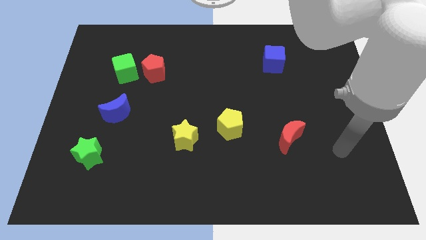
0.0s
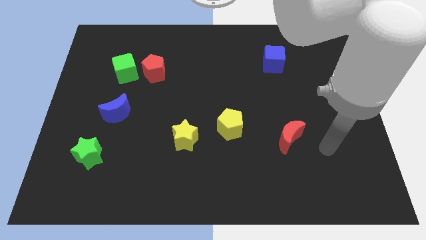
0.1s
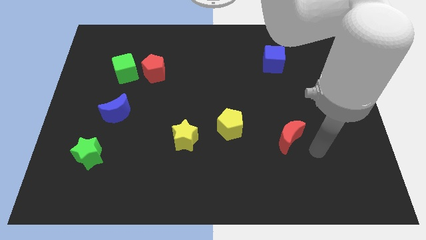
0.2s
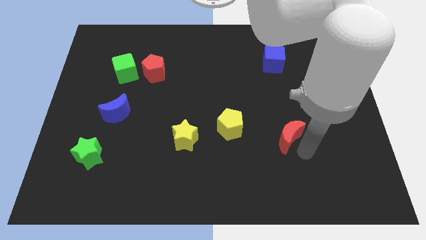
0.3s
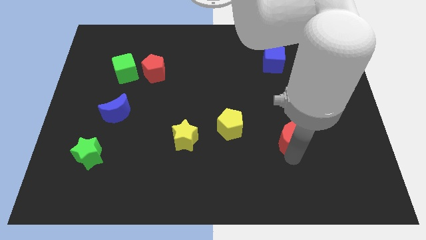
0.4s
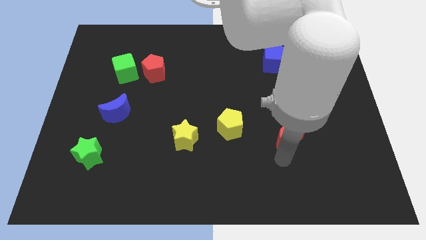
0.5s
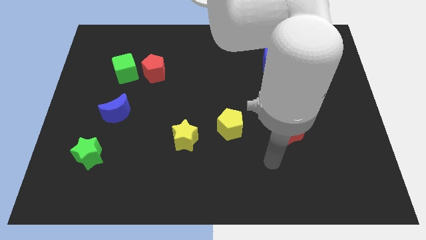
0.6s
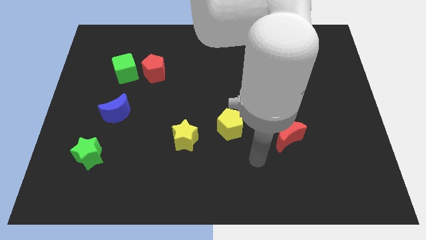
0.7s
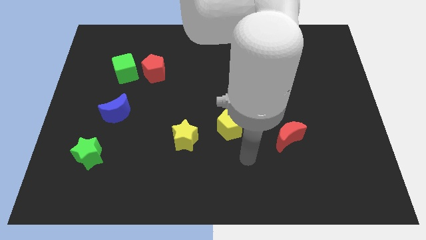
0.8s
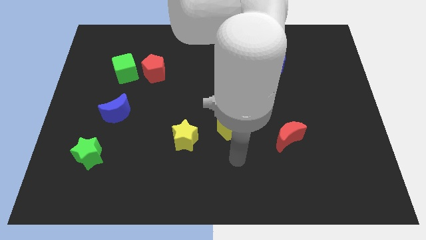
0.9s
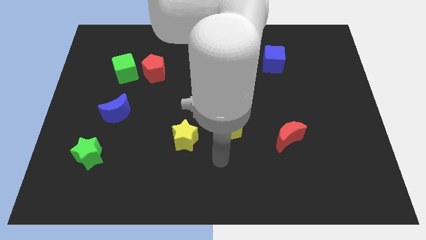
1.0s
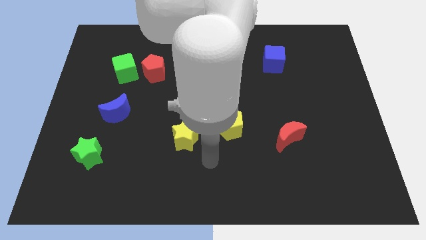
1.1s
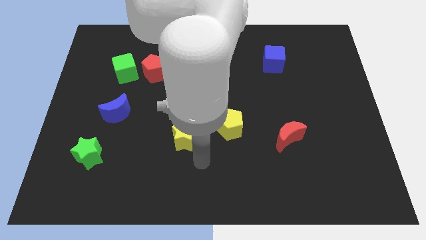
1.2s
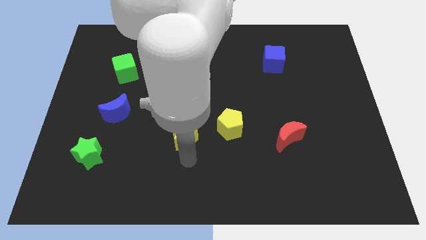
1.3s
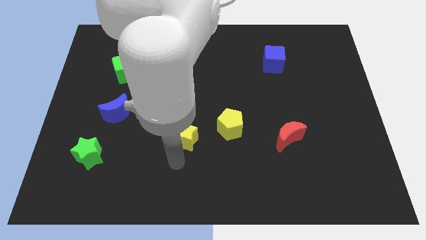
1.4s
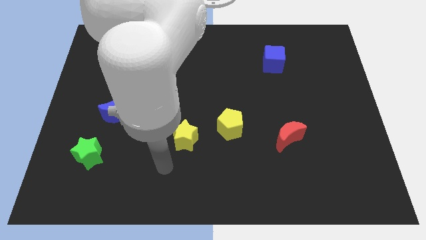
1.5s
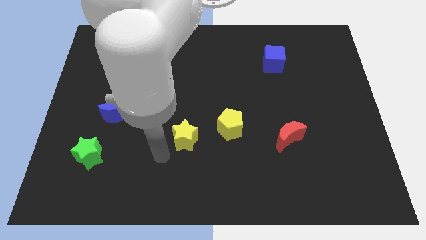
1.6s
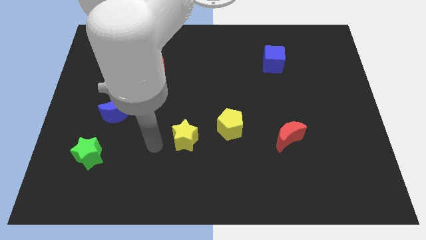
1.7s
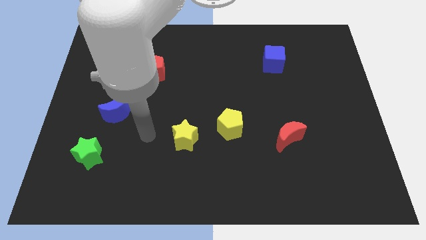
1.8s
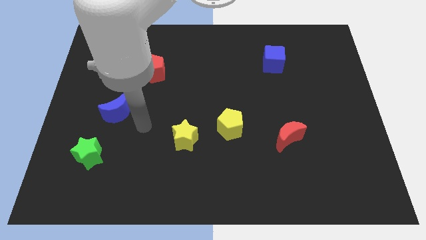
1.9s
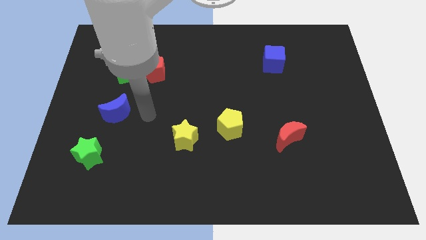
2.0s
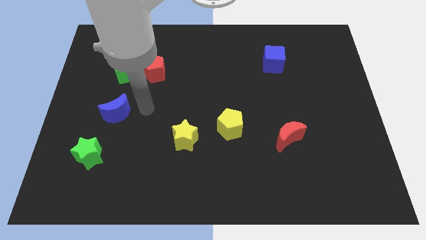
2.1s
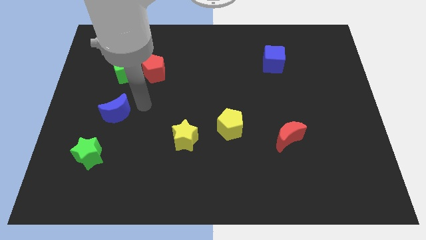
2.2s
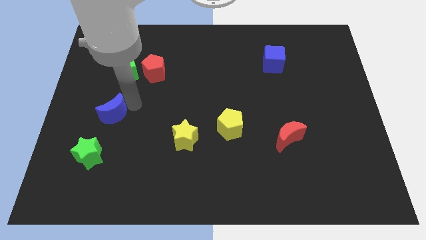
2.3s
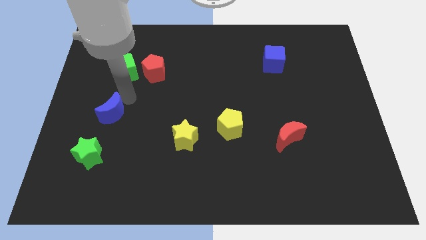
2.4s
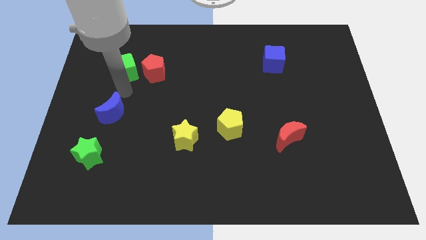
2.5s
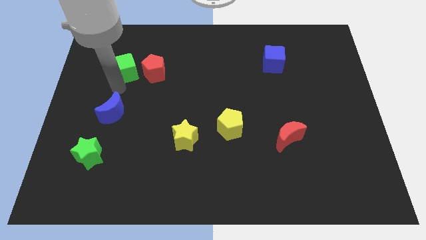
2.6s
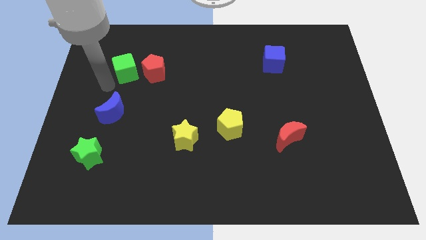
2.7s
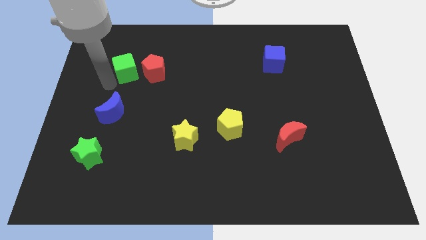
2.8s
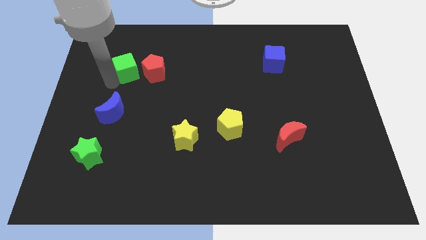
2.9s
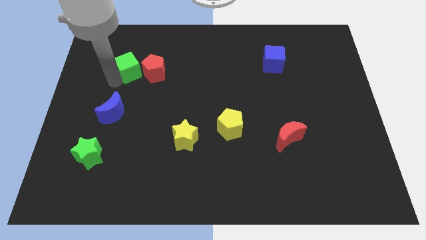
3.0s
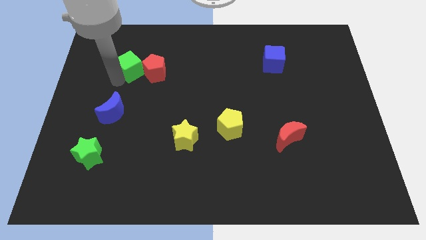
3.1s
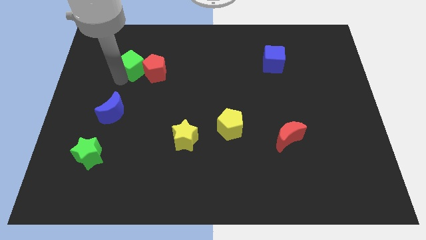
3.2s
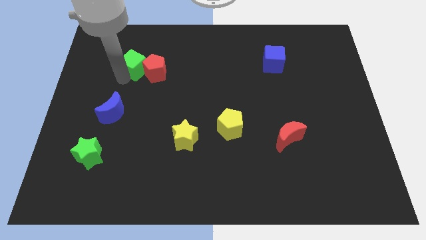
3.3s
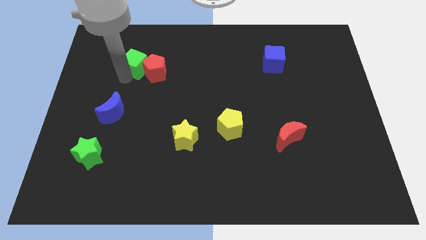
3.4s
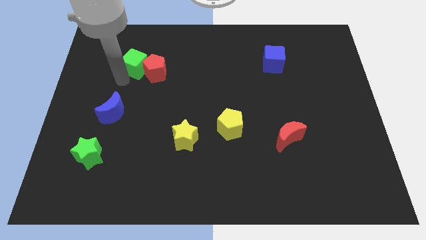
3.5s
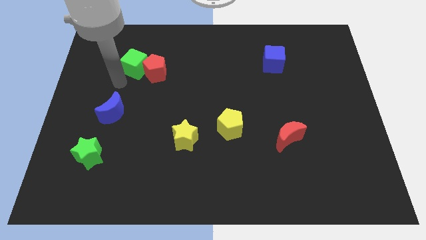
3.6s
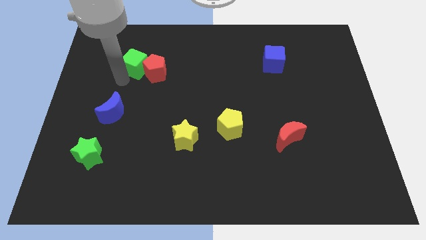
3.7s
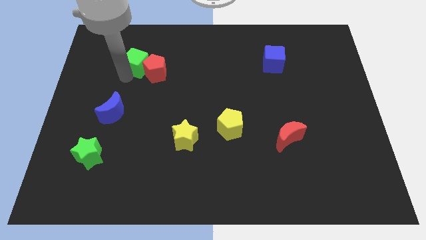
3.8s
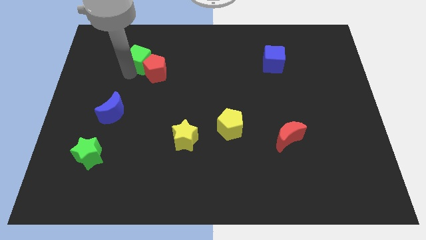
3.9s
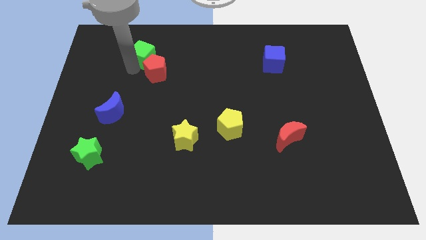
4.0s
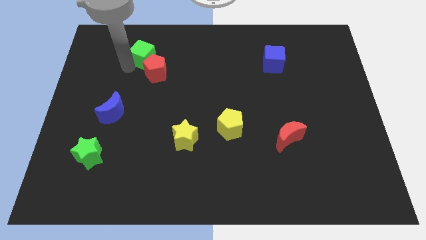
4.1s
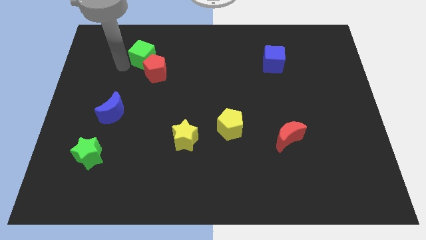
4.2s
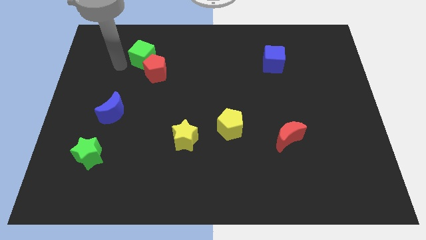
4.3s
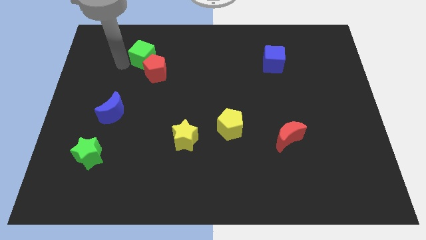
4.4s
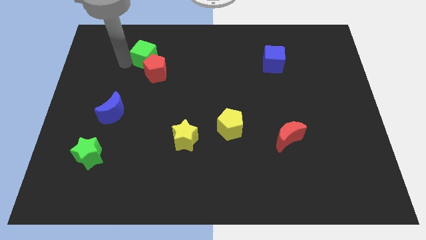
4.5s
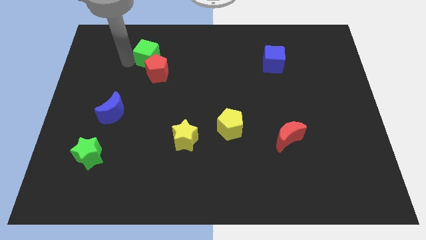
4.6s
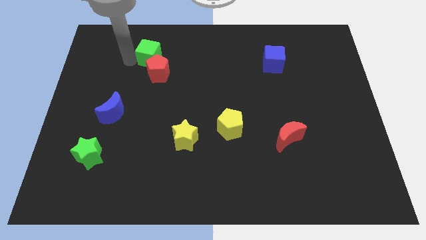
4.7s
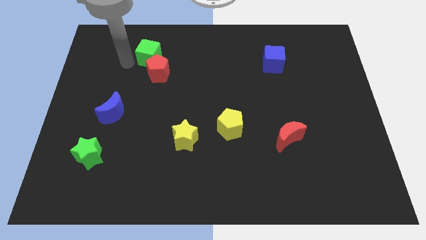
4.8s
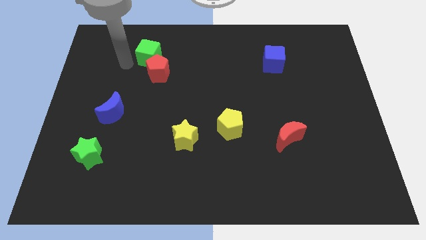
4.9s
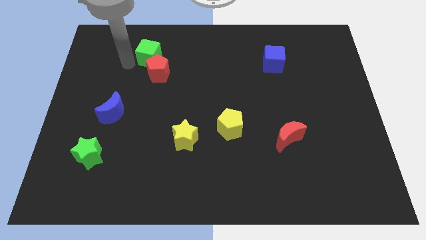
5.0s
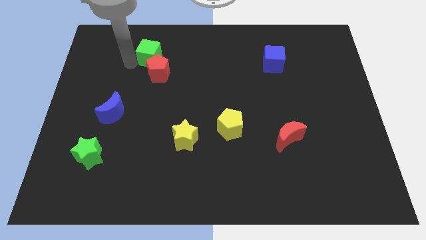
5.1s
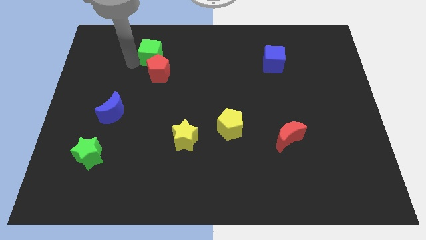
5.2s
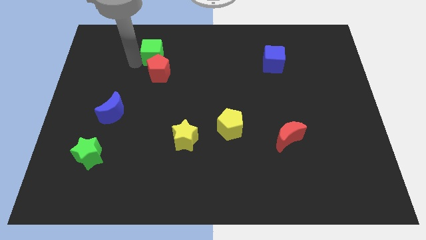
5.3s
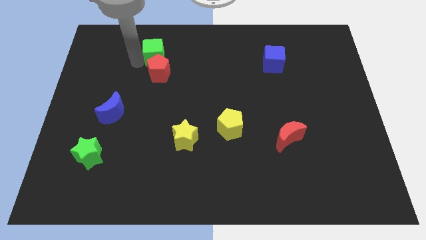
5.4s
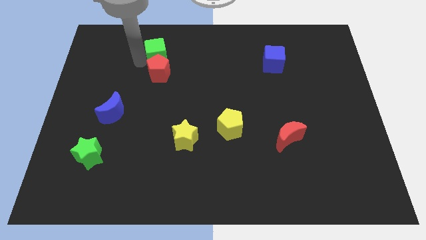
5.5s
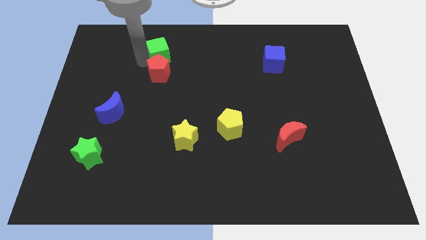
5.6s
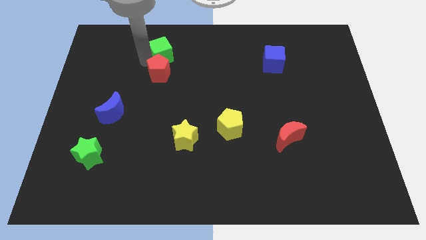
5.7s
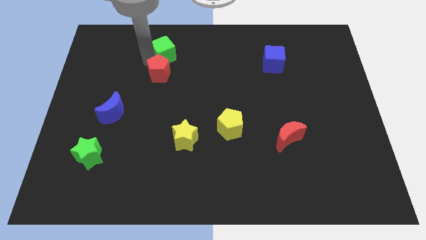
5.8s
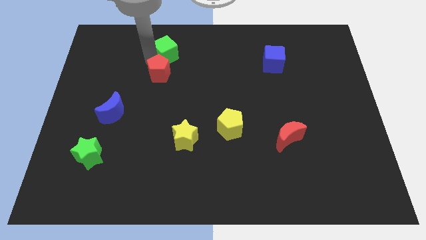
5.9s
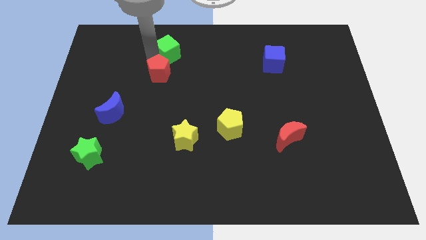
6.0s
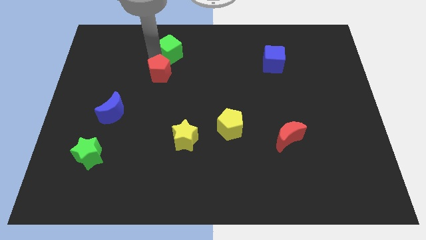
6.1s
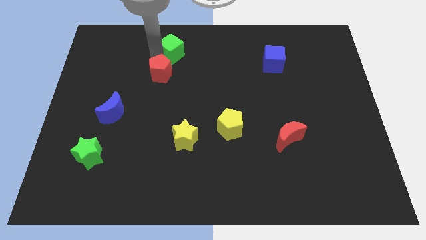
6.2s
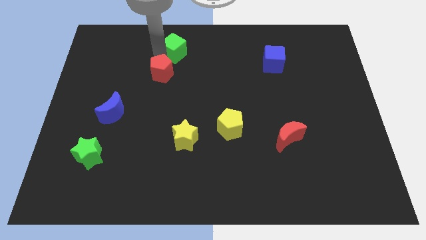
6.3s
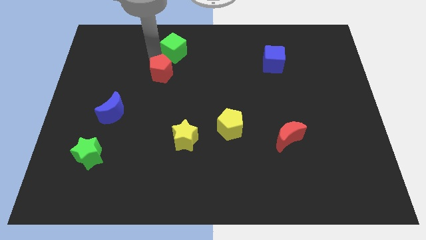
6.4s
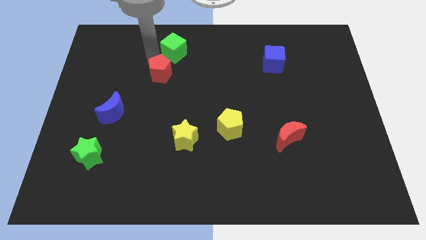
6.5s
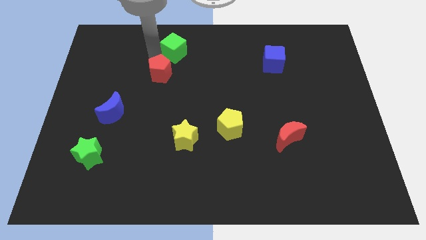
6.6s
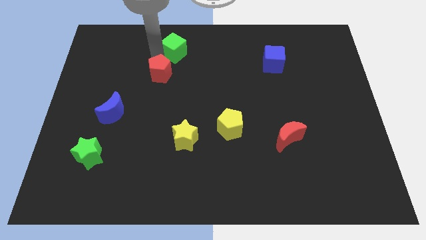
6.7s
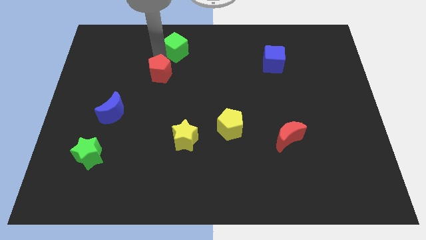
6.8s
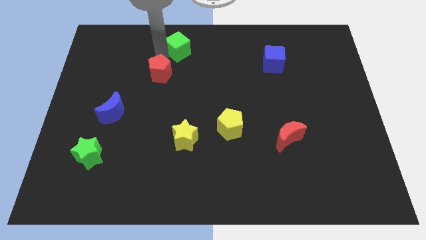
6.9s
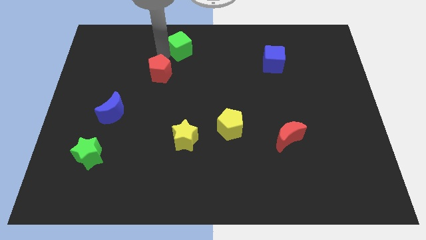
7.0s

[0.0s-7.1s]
push the green cube to the towards your base

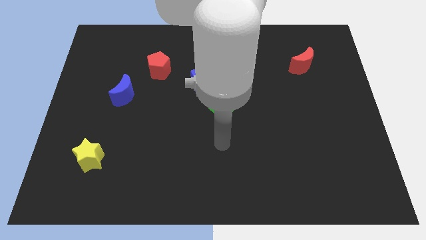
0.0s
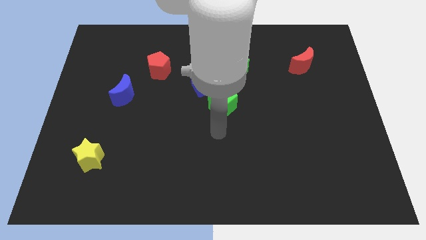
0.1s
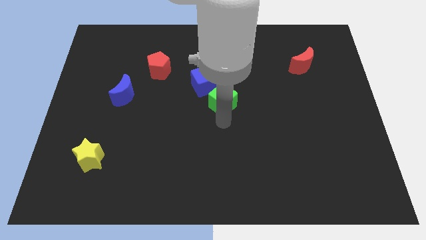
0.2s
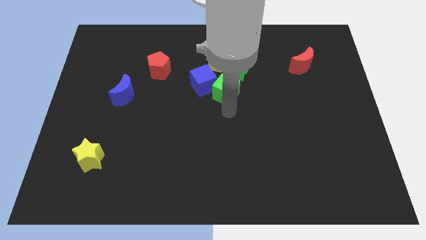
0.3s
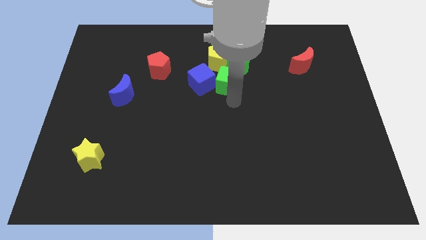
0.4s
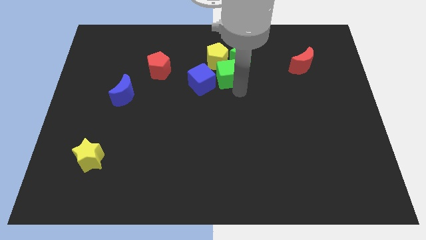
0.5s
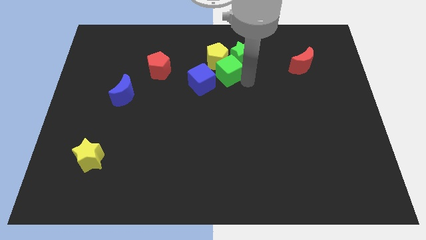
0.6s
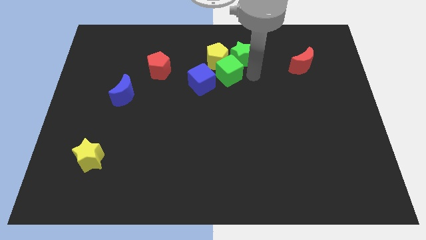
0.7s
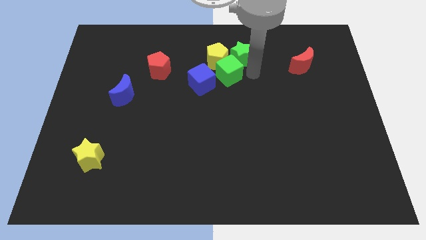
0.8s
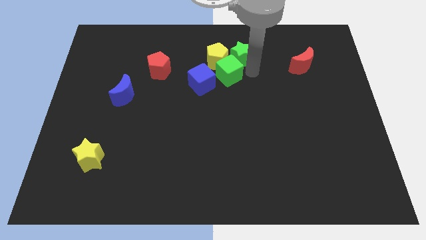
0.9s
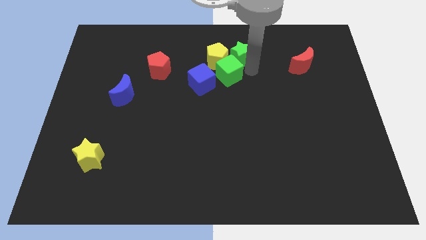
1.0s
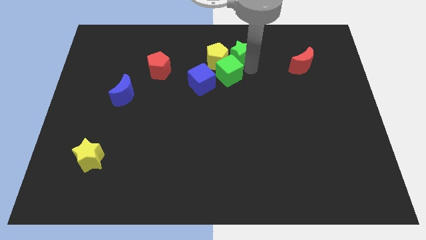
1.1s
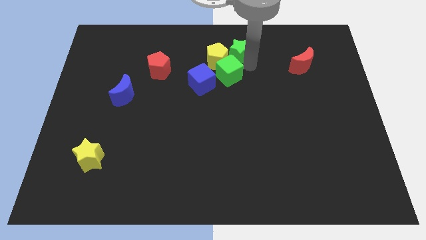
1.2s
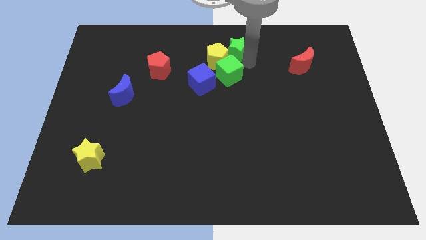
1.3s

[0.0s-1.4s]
put the green star to the top
